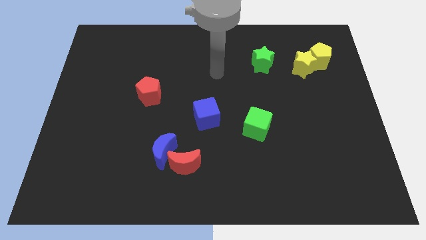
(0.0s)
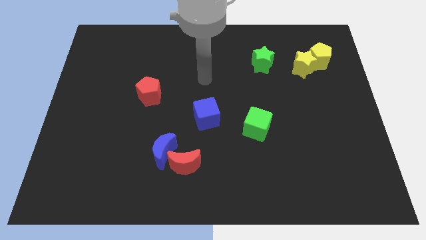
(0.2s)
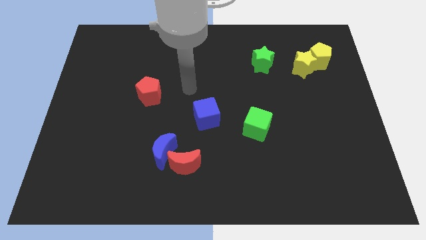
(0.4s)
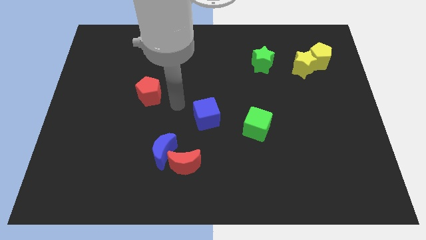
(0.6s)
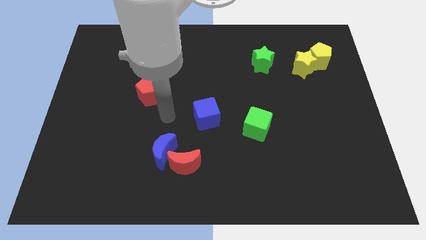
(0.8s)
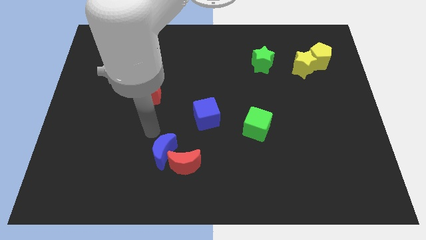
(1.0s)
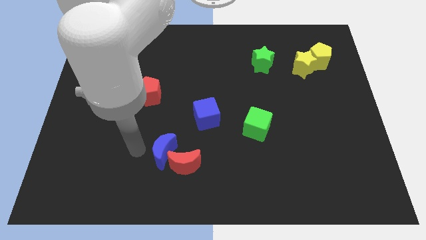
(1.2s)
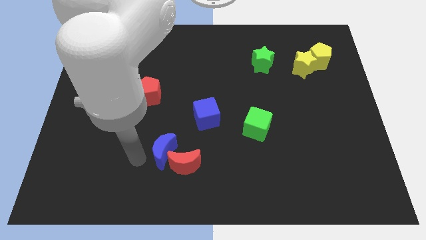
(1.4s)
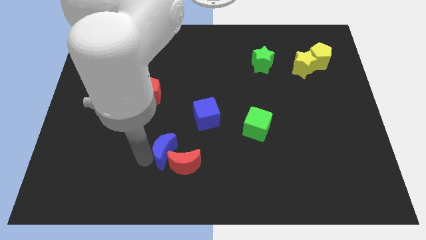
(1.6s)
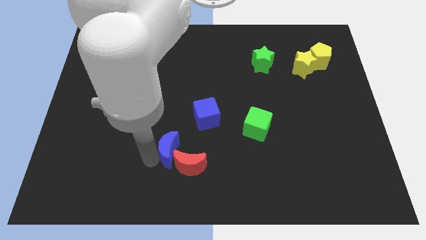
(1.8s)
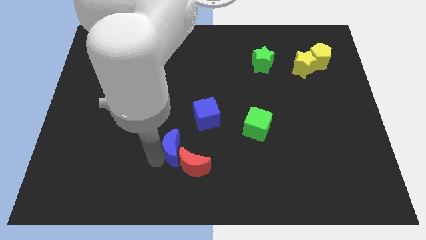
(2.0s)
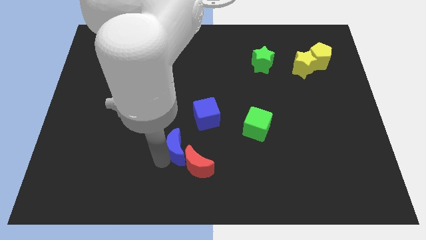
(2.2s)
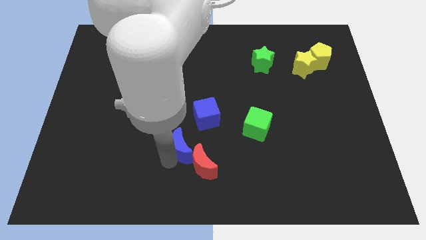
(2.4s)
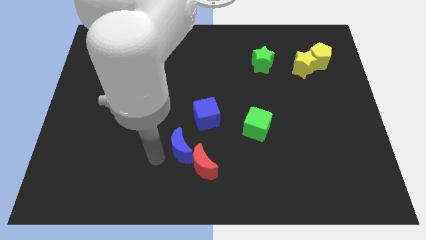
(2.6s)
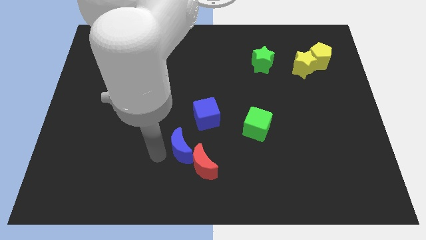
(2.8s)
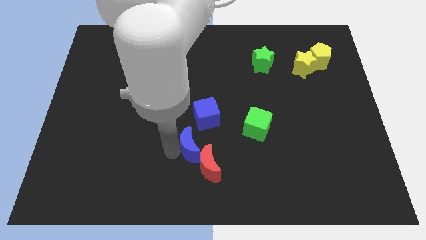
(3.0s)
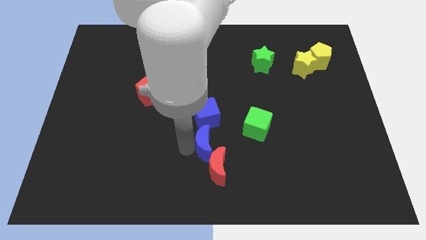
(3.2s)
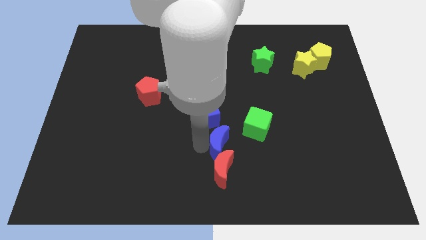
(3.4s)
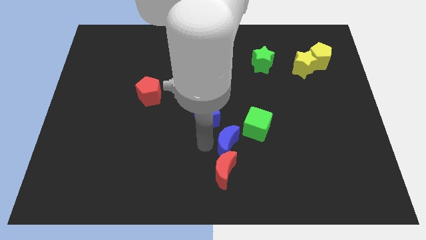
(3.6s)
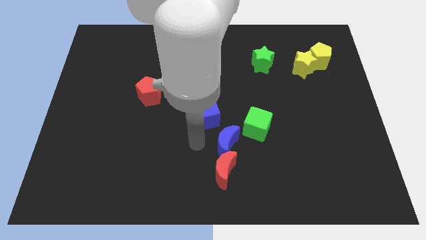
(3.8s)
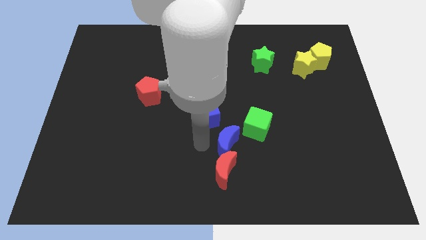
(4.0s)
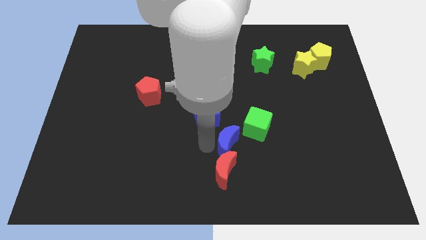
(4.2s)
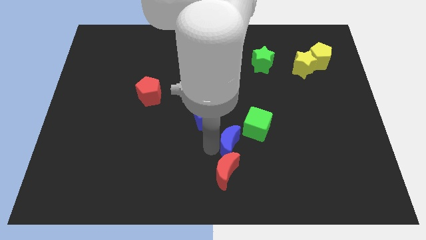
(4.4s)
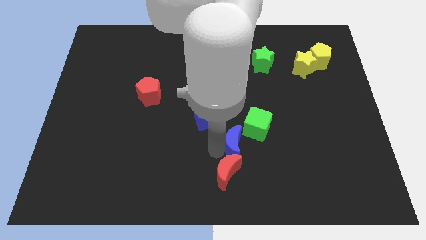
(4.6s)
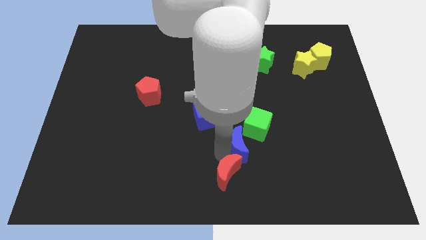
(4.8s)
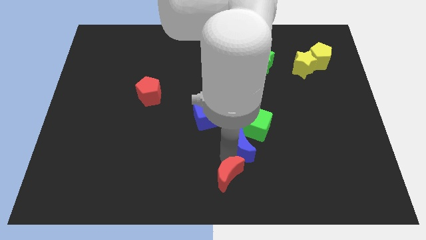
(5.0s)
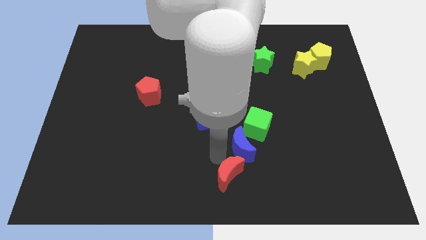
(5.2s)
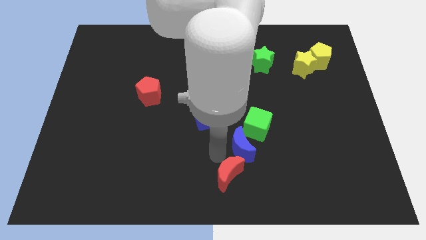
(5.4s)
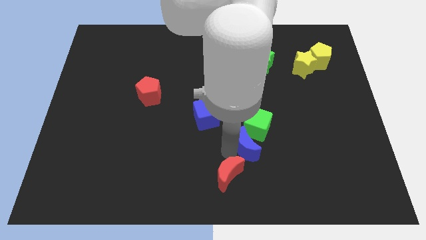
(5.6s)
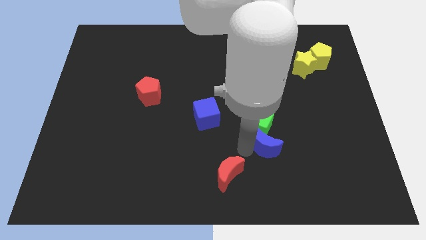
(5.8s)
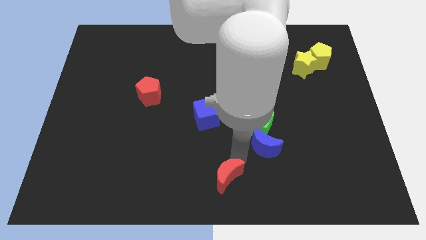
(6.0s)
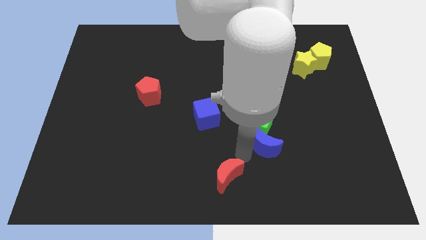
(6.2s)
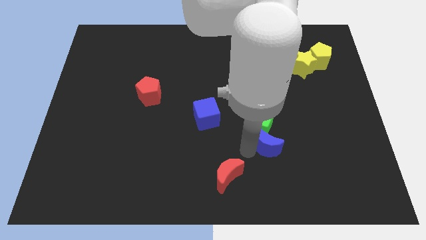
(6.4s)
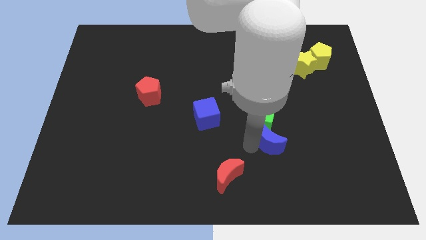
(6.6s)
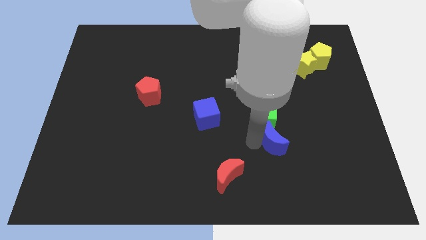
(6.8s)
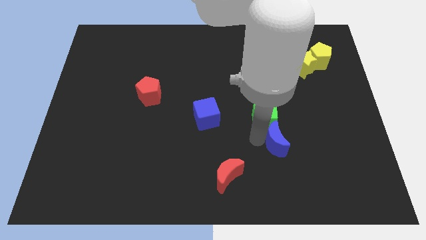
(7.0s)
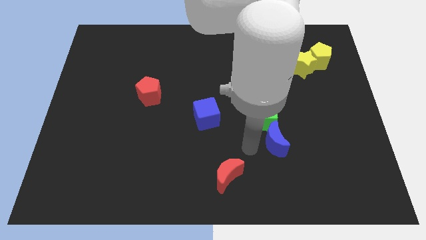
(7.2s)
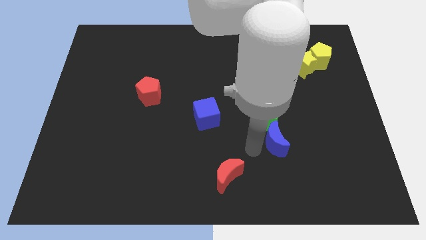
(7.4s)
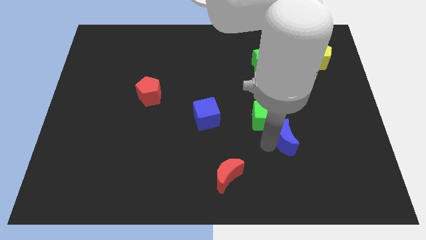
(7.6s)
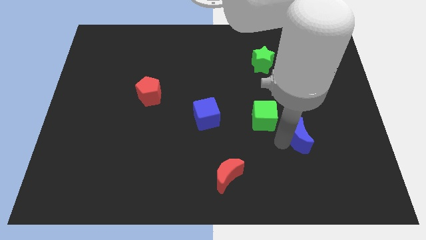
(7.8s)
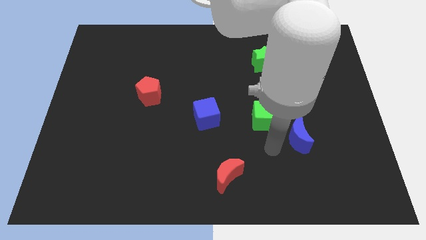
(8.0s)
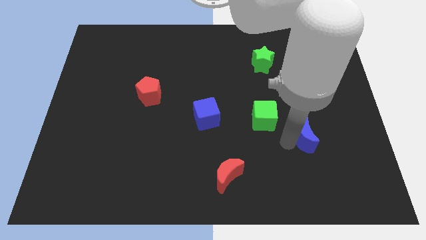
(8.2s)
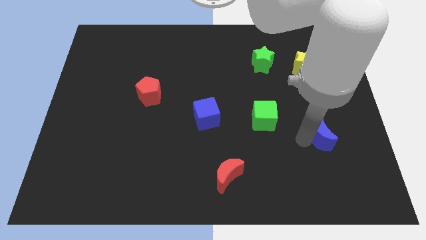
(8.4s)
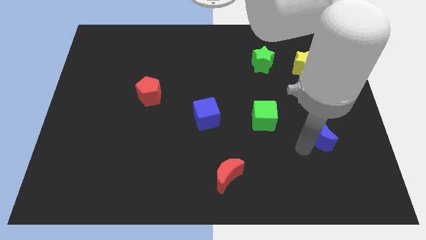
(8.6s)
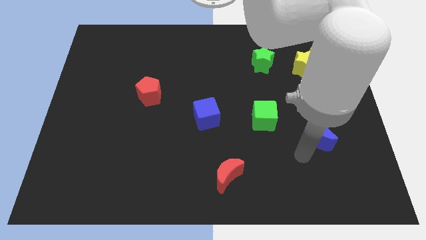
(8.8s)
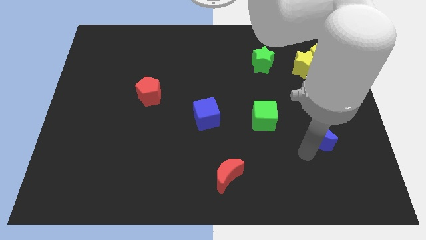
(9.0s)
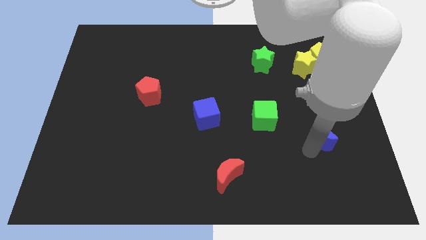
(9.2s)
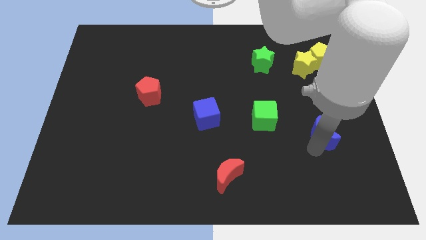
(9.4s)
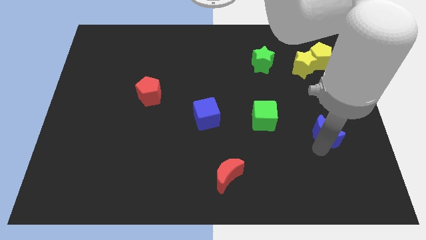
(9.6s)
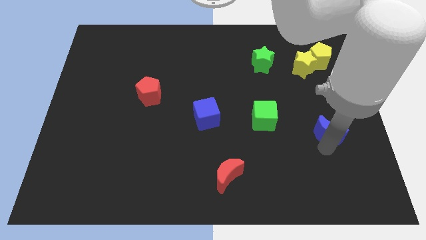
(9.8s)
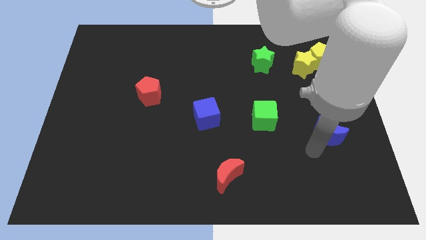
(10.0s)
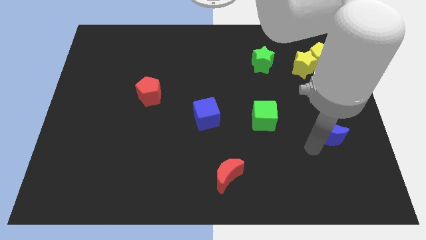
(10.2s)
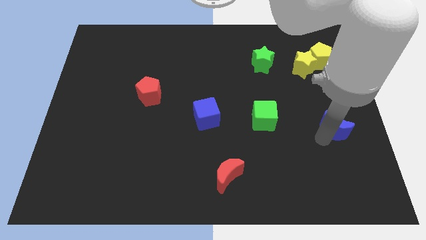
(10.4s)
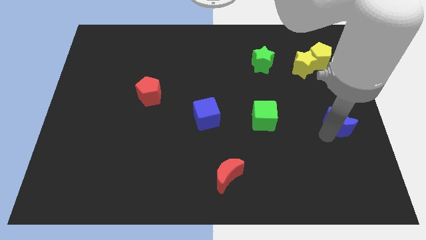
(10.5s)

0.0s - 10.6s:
push the blue moon to the center right
